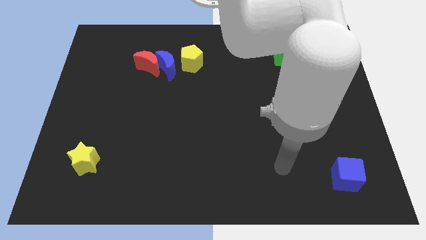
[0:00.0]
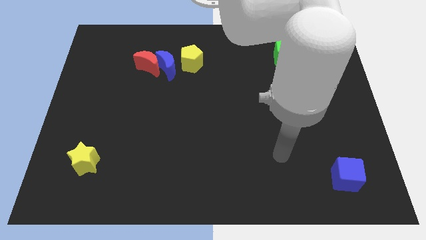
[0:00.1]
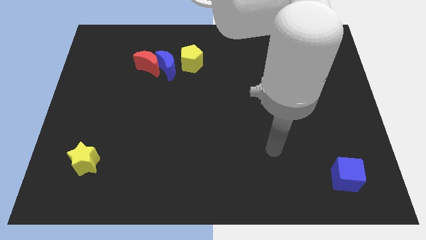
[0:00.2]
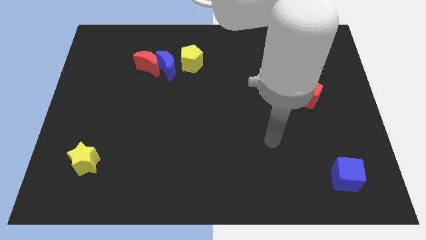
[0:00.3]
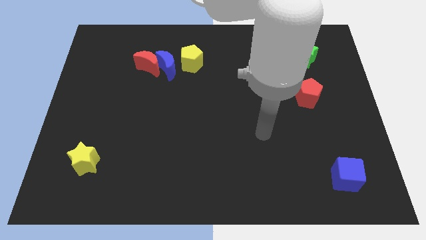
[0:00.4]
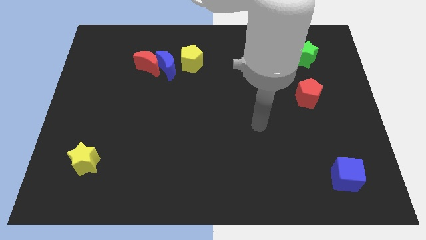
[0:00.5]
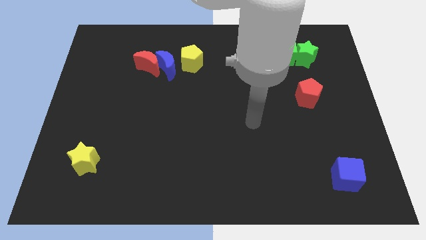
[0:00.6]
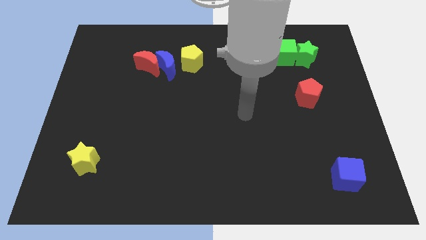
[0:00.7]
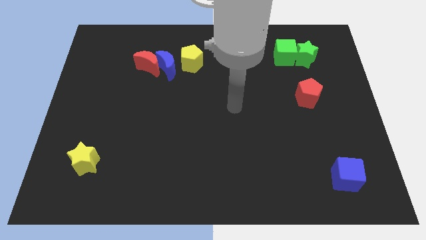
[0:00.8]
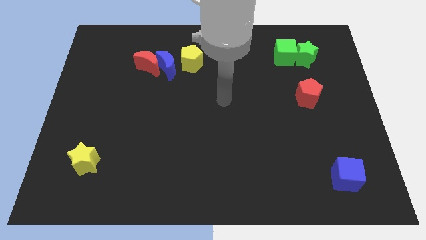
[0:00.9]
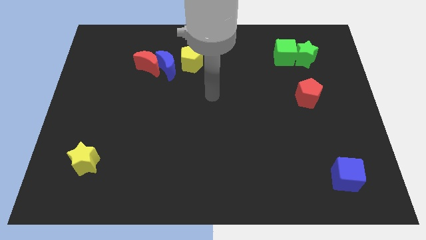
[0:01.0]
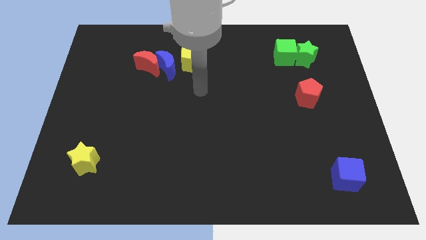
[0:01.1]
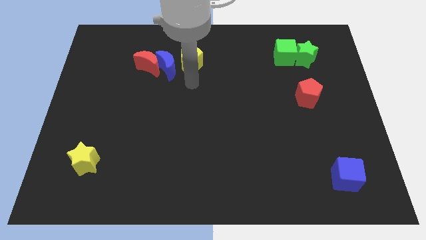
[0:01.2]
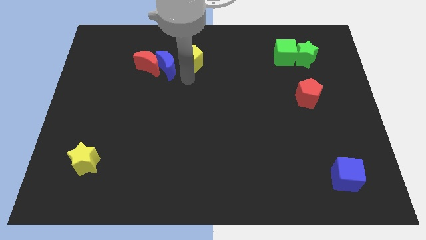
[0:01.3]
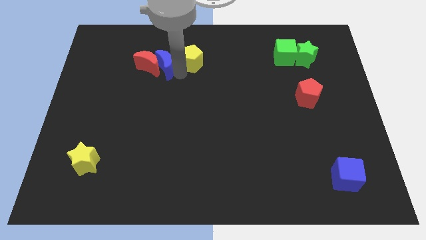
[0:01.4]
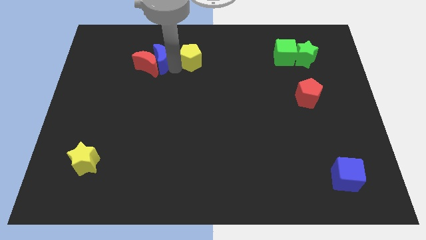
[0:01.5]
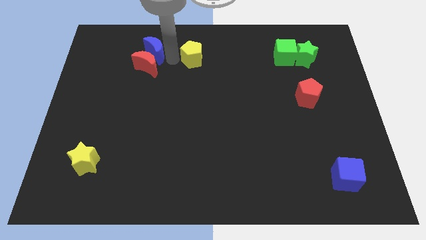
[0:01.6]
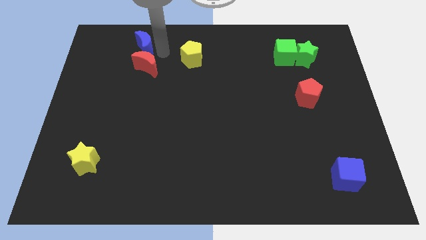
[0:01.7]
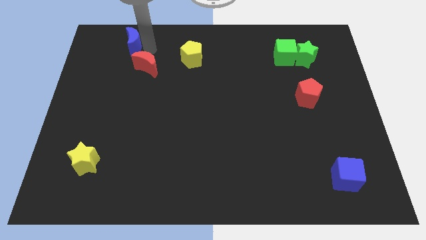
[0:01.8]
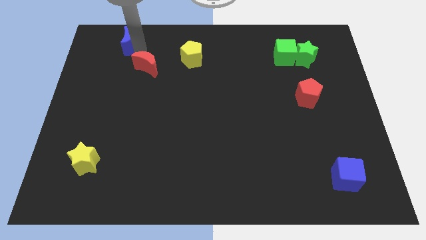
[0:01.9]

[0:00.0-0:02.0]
separate the red moon from the blue moon

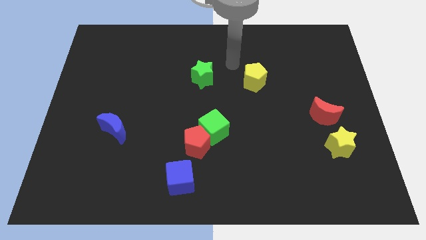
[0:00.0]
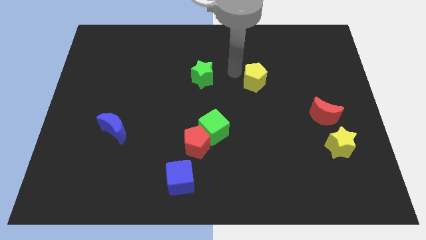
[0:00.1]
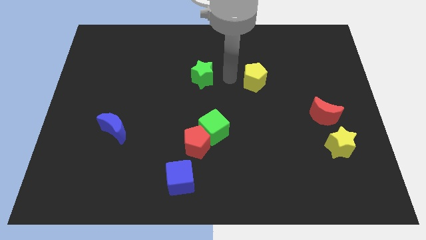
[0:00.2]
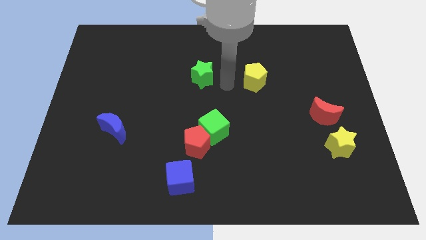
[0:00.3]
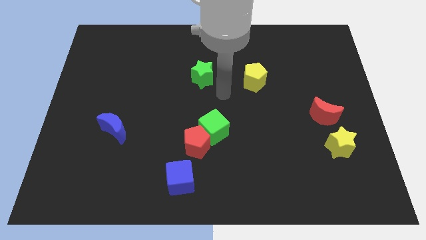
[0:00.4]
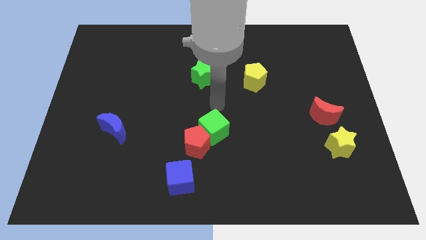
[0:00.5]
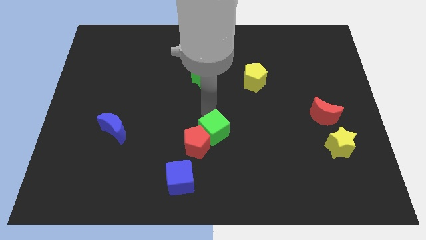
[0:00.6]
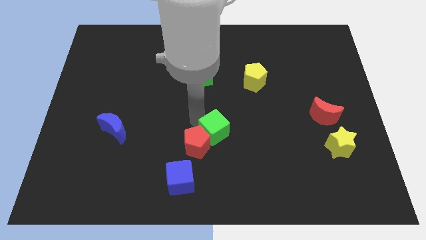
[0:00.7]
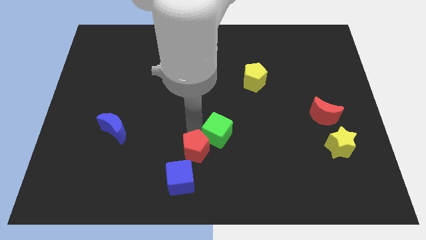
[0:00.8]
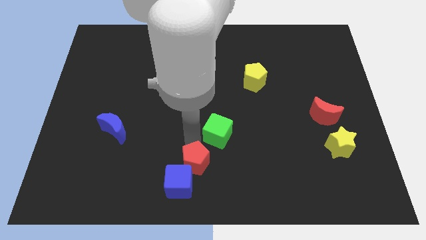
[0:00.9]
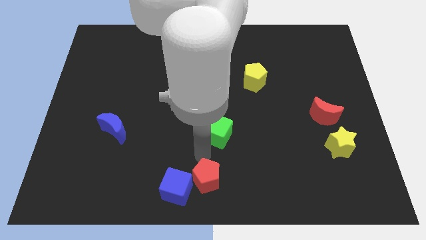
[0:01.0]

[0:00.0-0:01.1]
move the green cube away from the red pentagon

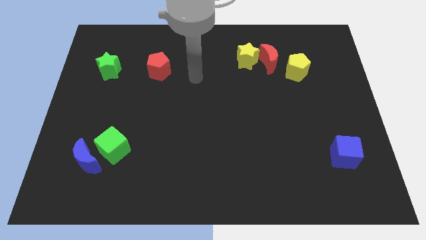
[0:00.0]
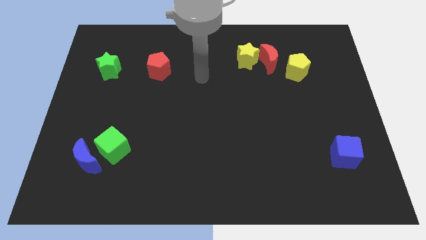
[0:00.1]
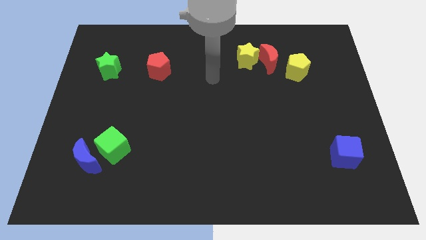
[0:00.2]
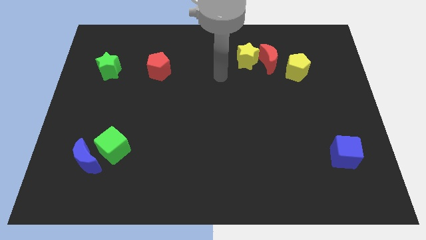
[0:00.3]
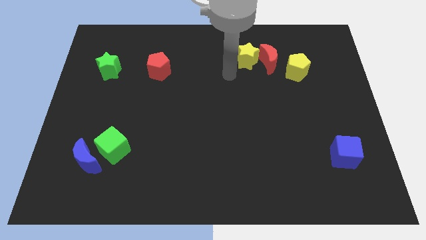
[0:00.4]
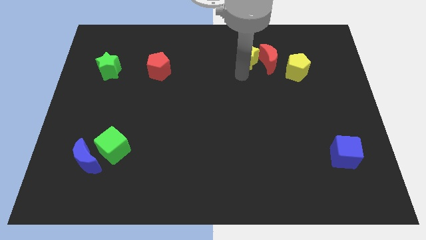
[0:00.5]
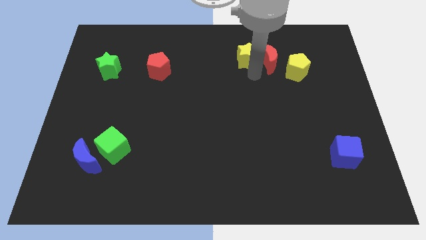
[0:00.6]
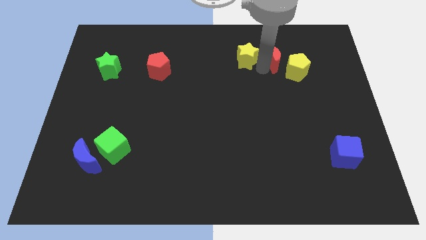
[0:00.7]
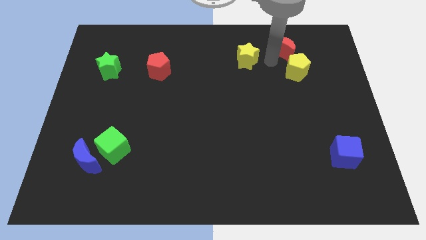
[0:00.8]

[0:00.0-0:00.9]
separate the yellow star from the red moon

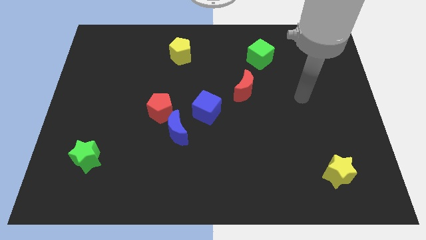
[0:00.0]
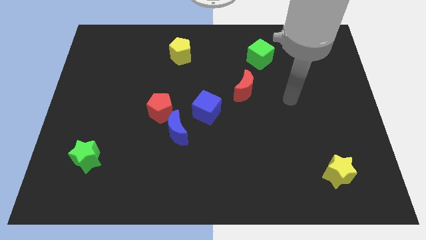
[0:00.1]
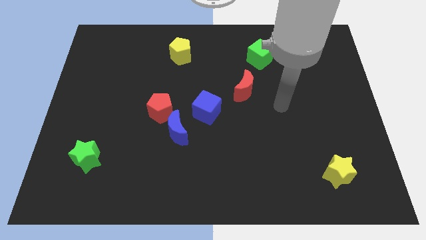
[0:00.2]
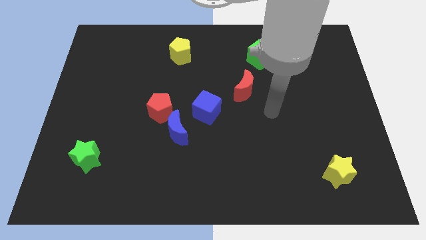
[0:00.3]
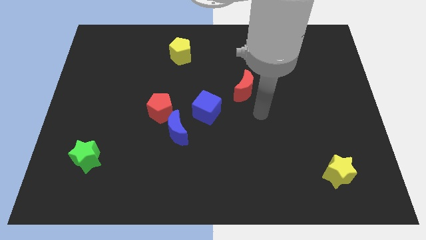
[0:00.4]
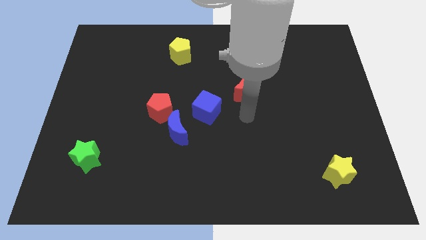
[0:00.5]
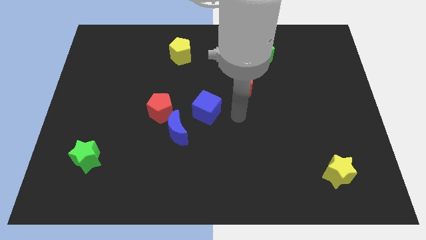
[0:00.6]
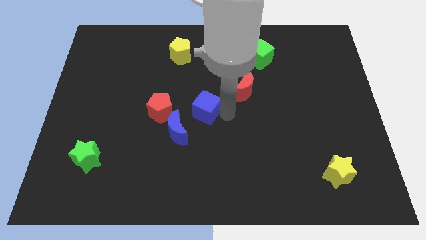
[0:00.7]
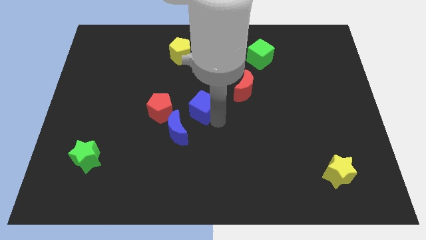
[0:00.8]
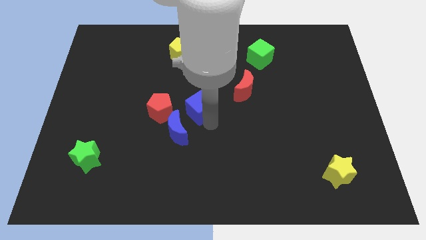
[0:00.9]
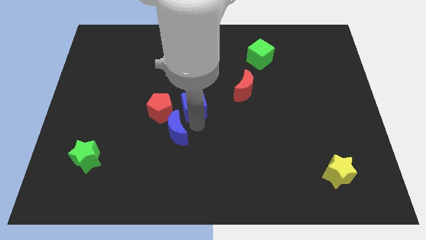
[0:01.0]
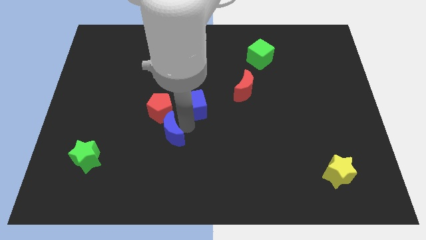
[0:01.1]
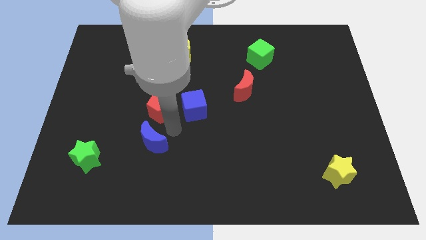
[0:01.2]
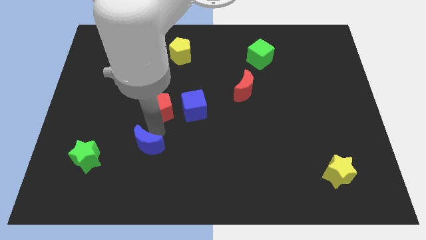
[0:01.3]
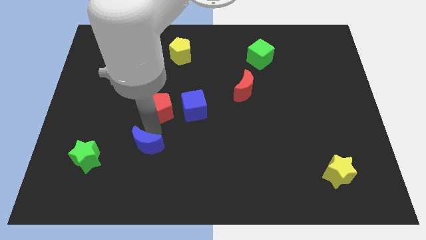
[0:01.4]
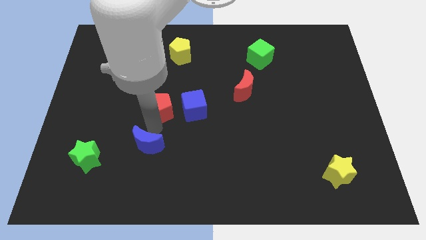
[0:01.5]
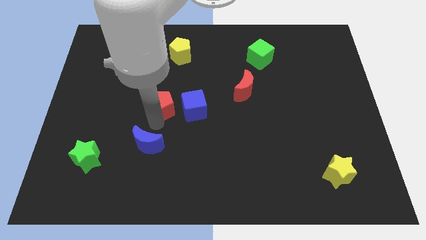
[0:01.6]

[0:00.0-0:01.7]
separate the red pentagon from the blue moon

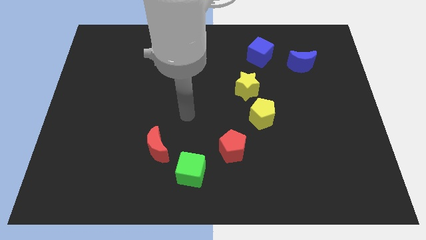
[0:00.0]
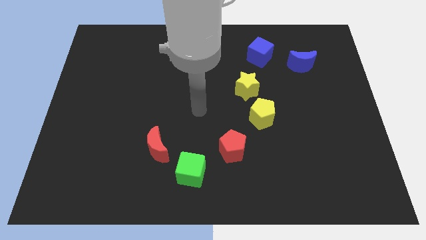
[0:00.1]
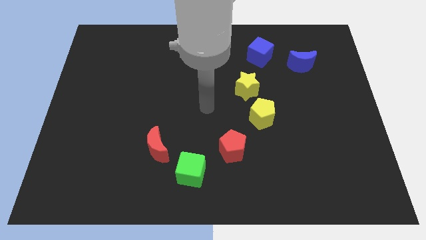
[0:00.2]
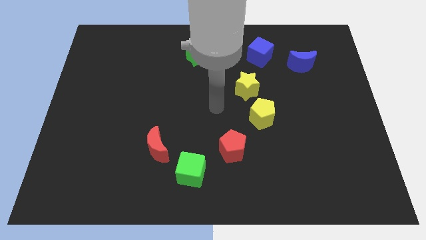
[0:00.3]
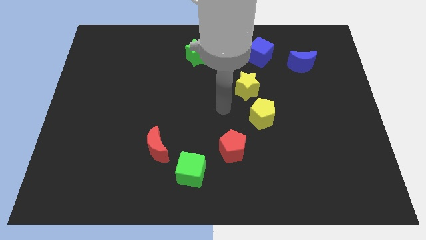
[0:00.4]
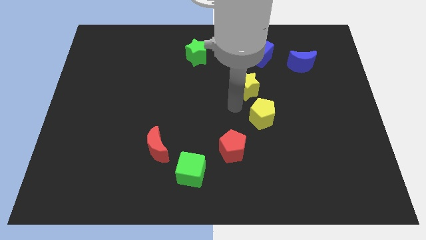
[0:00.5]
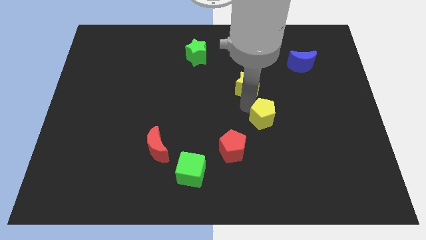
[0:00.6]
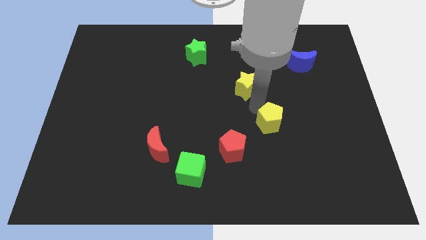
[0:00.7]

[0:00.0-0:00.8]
separate the yellow star from the yellow pentagon

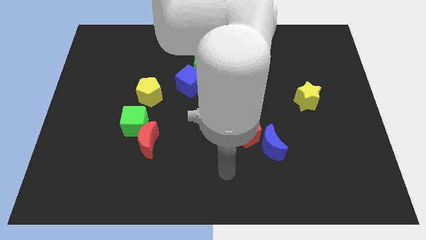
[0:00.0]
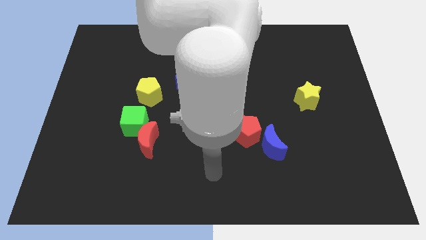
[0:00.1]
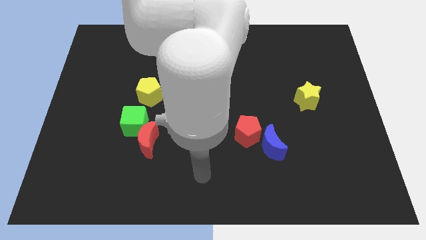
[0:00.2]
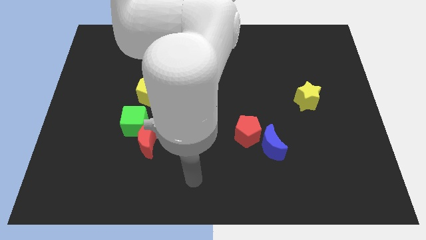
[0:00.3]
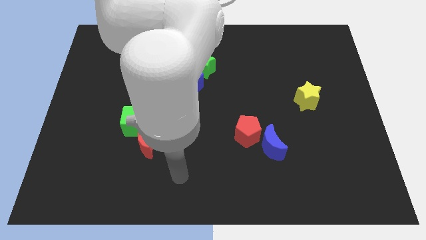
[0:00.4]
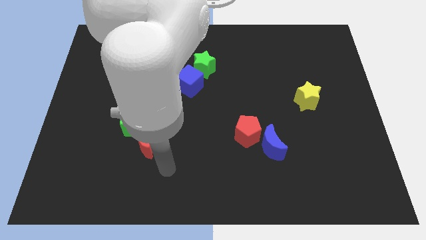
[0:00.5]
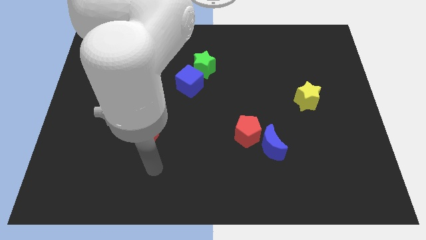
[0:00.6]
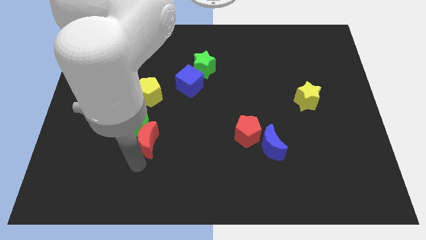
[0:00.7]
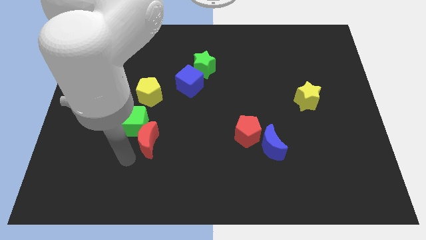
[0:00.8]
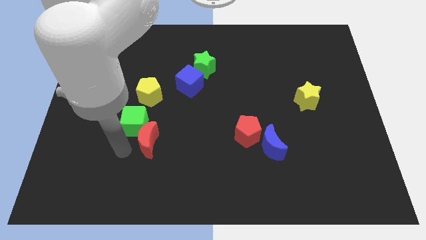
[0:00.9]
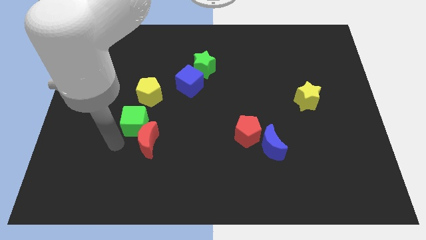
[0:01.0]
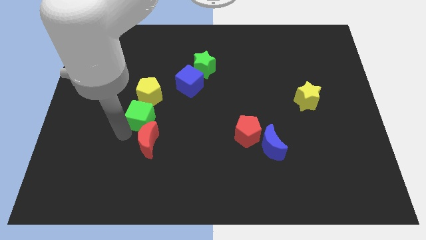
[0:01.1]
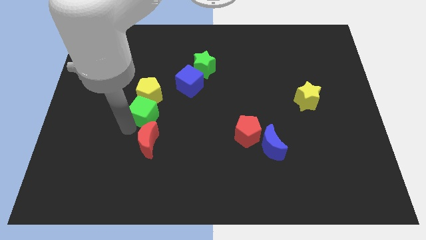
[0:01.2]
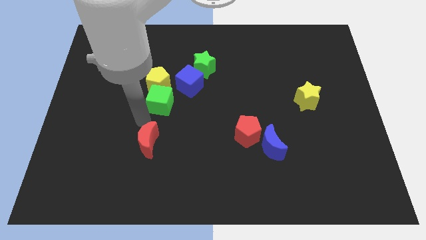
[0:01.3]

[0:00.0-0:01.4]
move the red moon away from the green cube

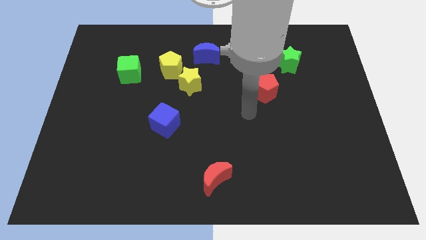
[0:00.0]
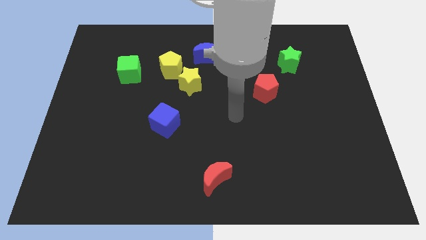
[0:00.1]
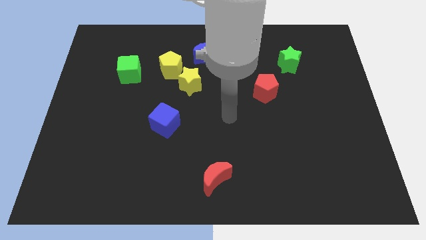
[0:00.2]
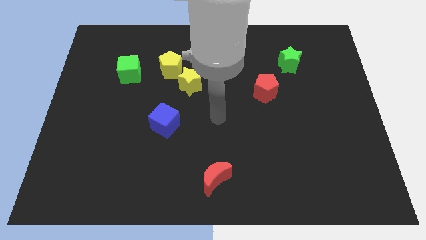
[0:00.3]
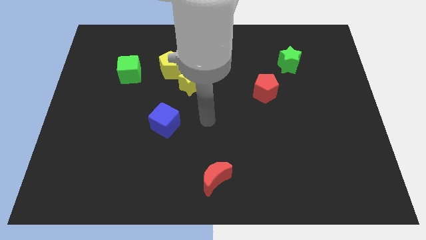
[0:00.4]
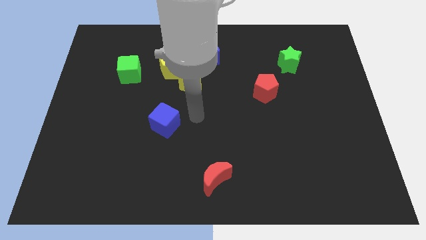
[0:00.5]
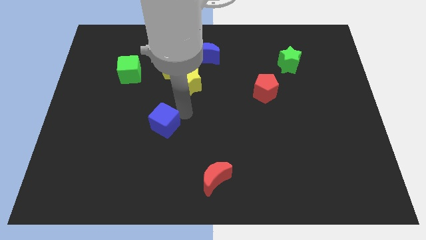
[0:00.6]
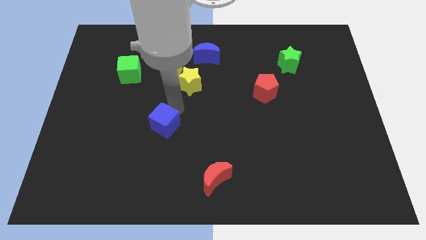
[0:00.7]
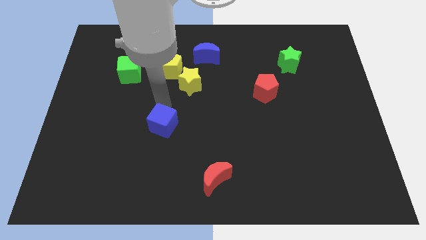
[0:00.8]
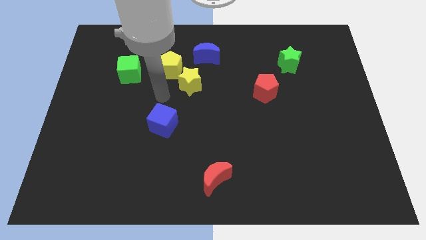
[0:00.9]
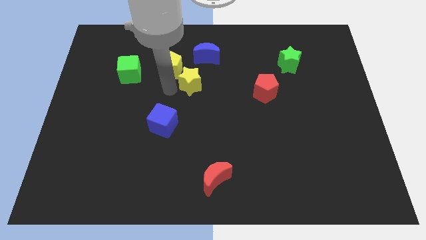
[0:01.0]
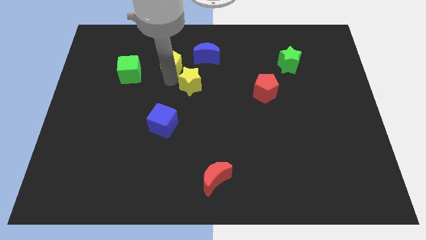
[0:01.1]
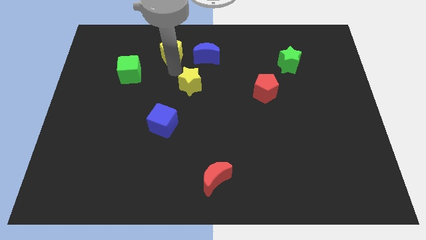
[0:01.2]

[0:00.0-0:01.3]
move the yellow star away from the yellow pentagon
